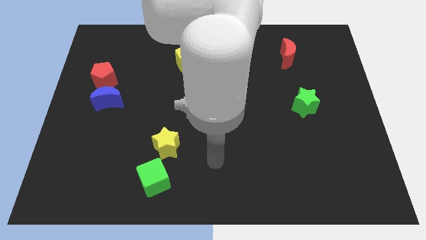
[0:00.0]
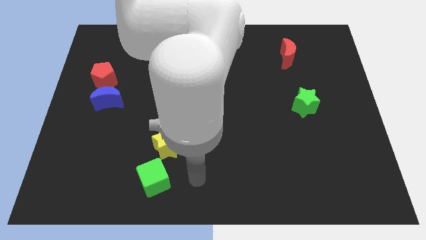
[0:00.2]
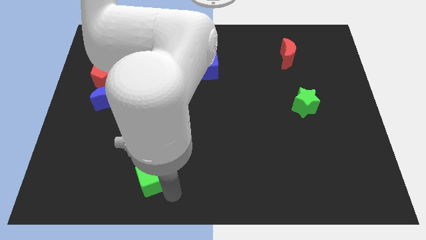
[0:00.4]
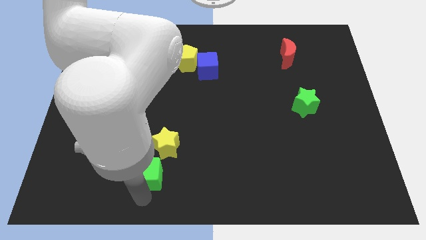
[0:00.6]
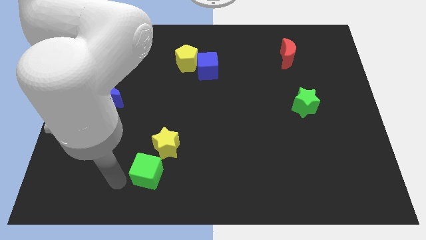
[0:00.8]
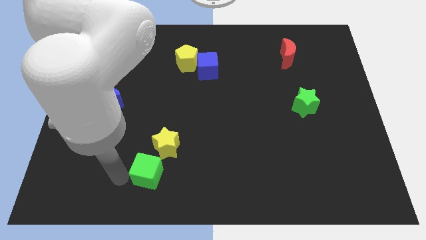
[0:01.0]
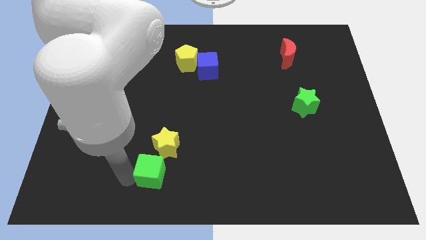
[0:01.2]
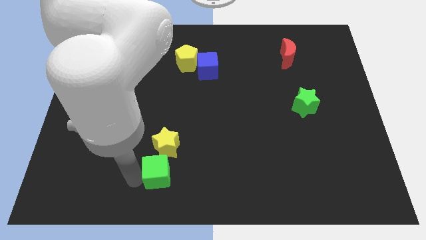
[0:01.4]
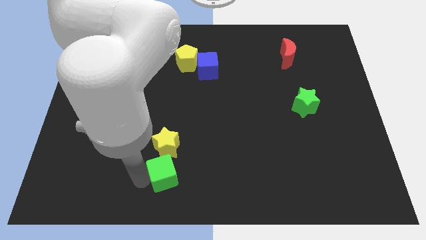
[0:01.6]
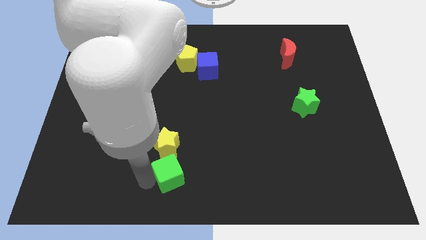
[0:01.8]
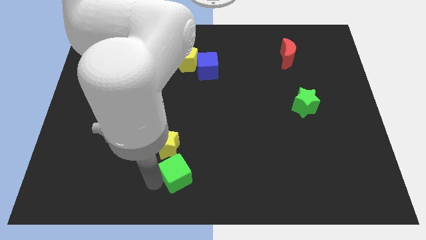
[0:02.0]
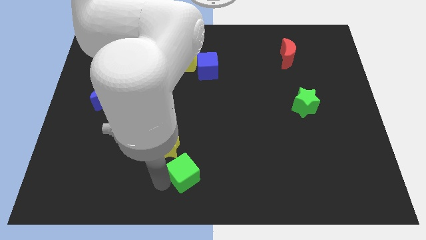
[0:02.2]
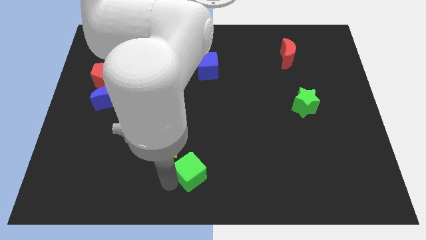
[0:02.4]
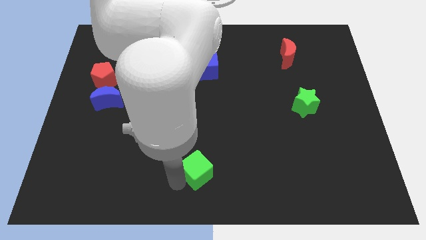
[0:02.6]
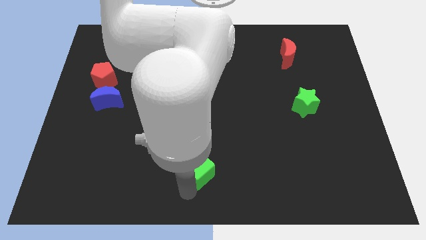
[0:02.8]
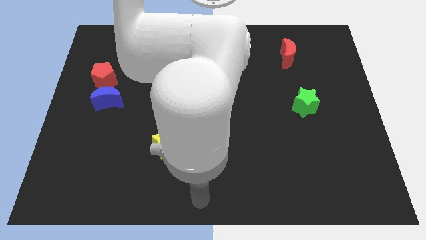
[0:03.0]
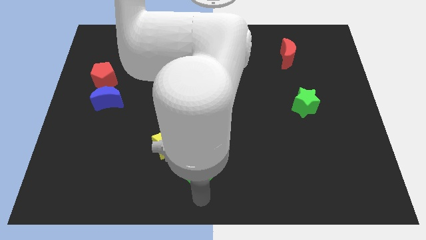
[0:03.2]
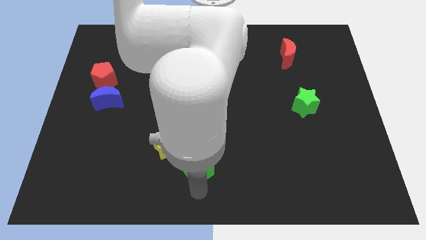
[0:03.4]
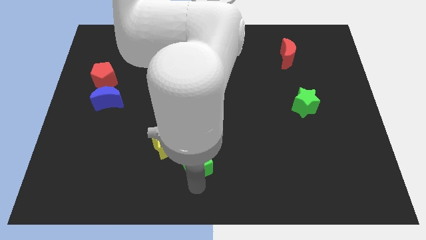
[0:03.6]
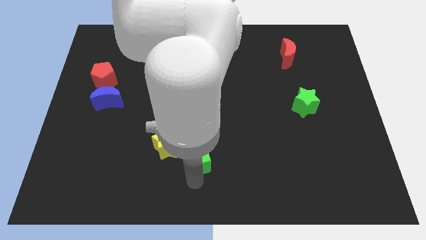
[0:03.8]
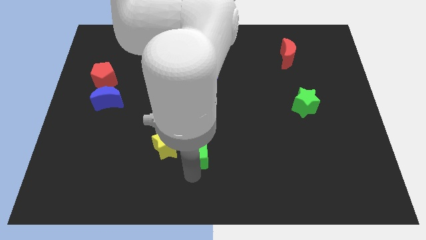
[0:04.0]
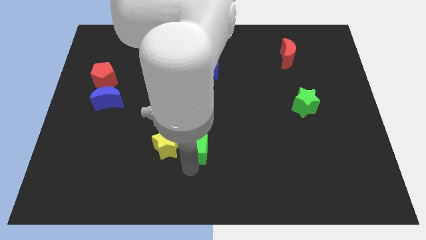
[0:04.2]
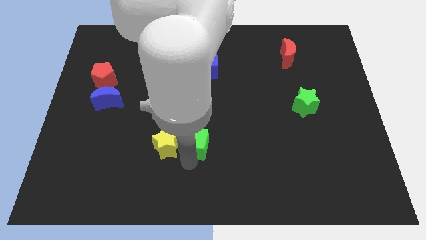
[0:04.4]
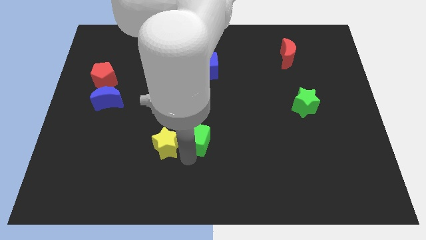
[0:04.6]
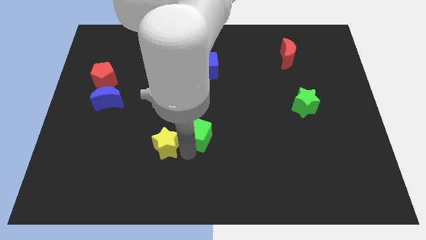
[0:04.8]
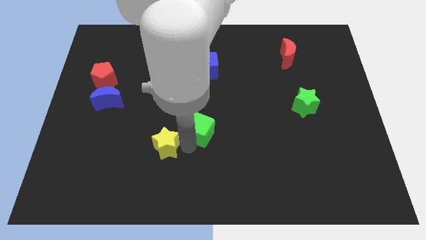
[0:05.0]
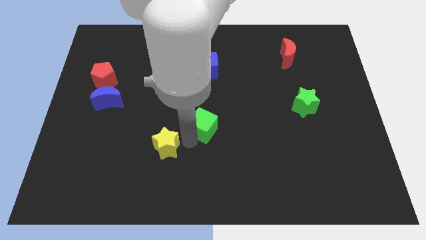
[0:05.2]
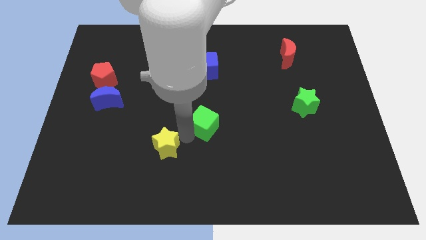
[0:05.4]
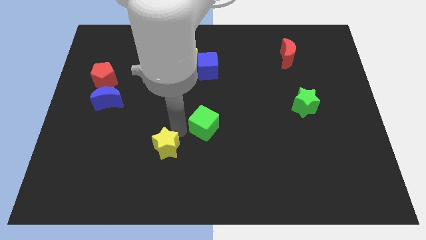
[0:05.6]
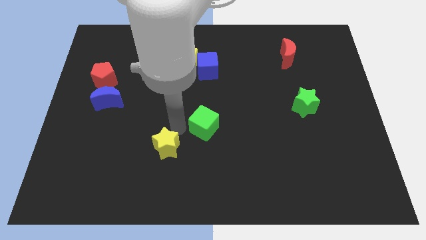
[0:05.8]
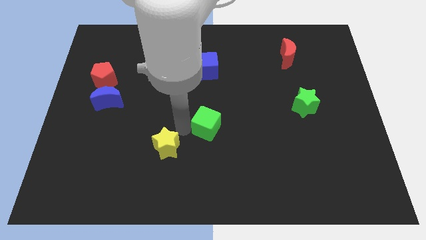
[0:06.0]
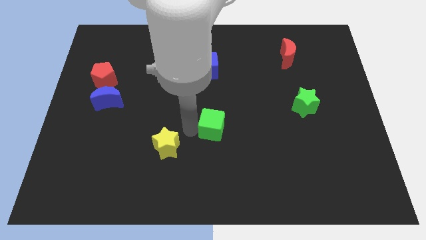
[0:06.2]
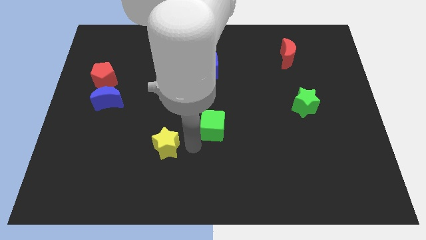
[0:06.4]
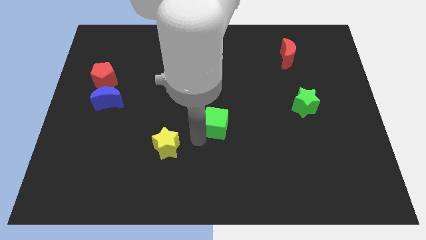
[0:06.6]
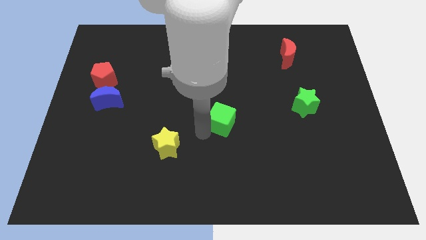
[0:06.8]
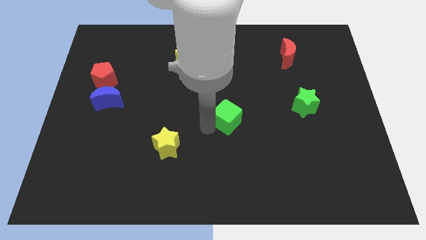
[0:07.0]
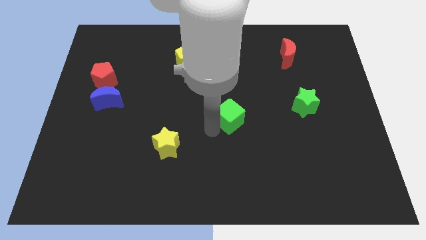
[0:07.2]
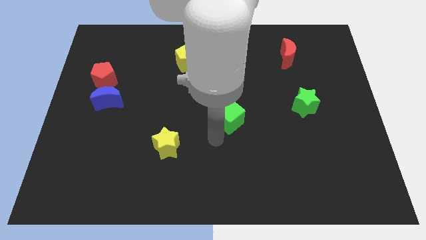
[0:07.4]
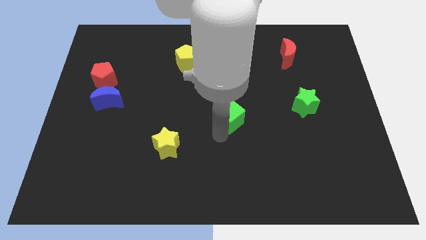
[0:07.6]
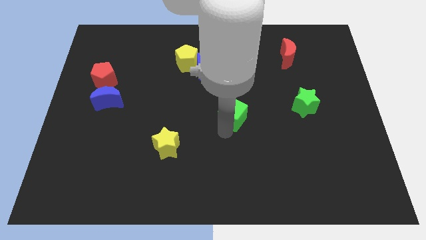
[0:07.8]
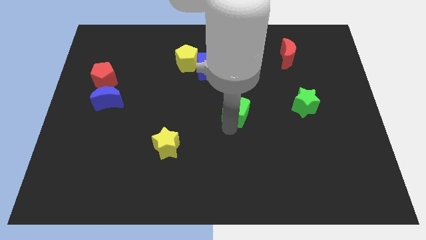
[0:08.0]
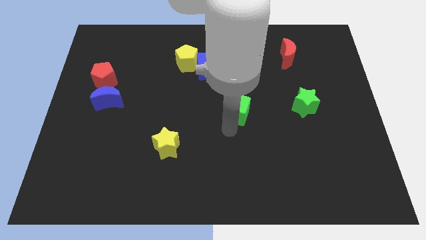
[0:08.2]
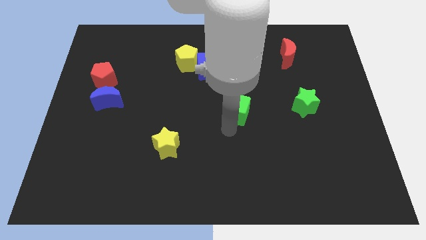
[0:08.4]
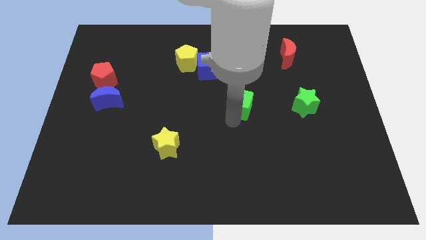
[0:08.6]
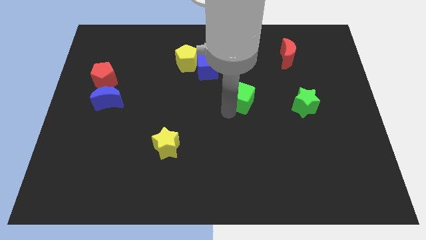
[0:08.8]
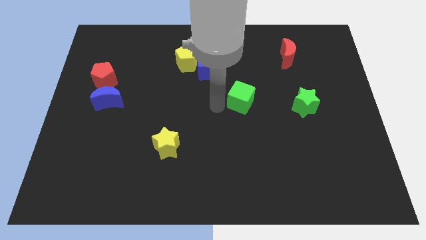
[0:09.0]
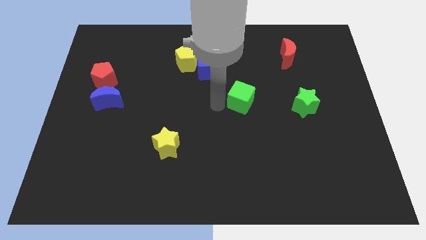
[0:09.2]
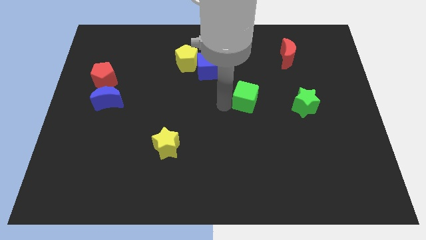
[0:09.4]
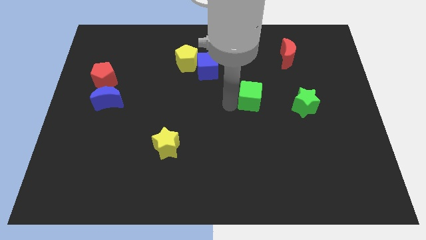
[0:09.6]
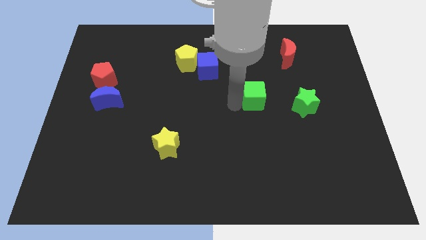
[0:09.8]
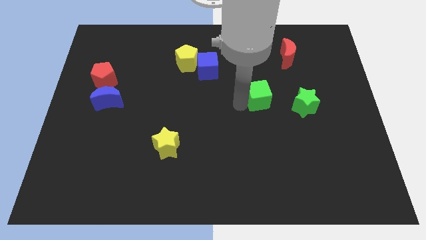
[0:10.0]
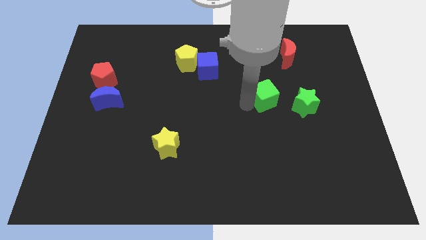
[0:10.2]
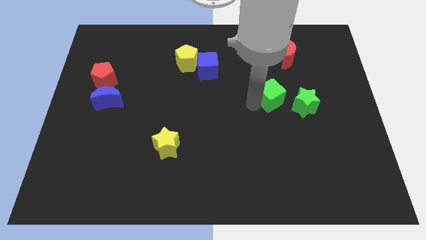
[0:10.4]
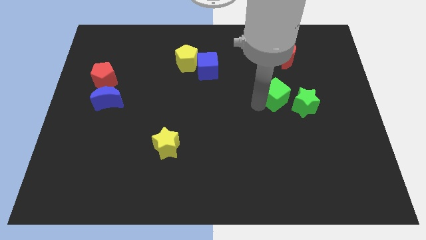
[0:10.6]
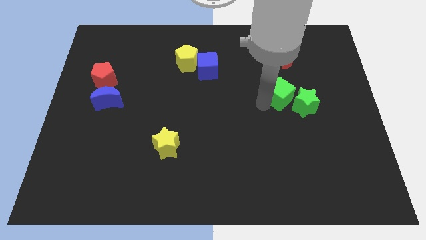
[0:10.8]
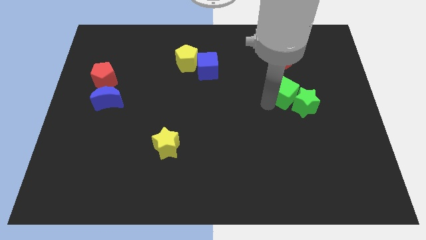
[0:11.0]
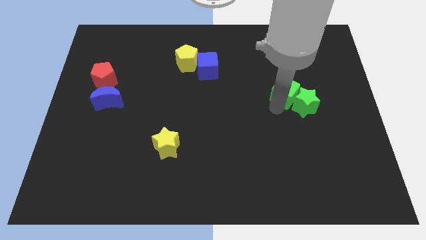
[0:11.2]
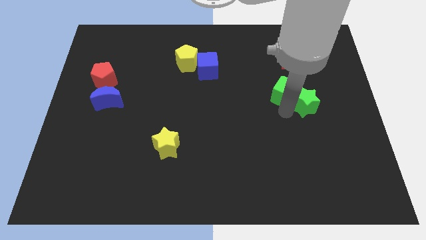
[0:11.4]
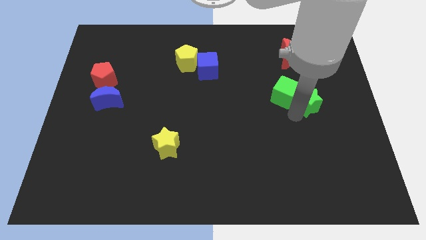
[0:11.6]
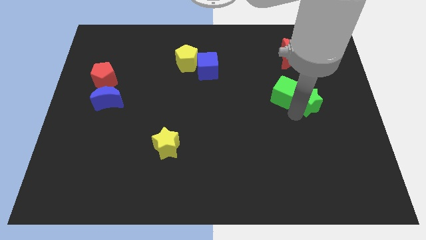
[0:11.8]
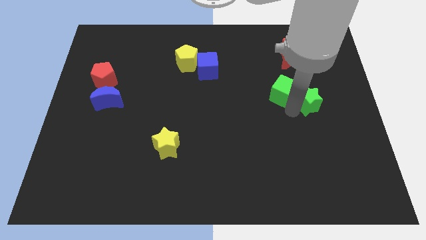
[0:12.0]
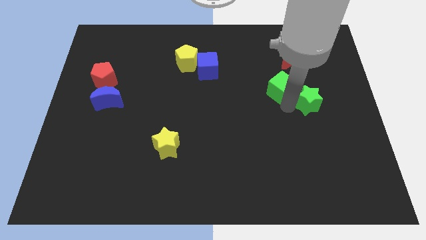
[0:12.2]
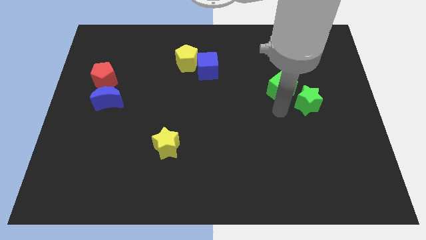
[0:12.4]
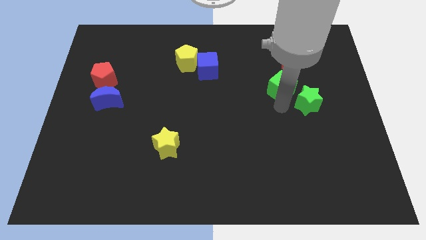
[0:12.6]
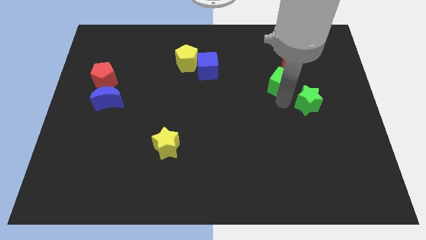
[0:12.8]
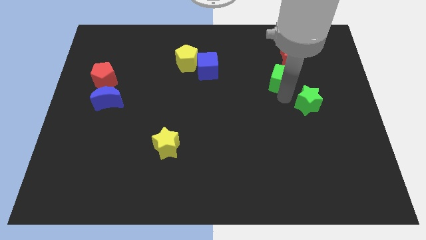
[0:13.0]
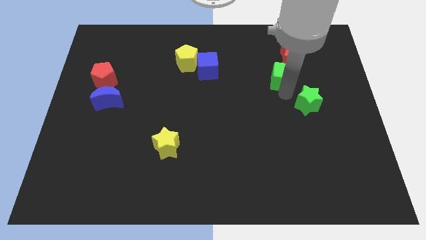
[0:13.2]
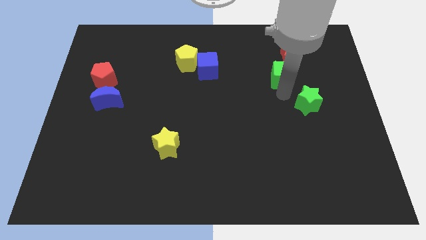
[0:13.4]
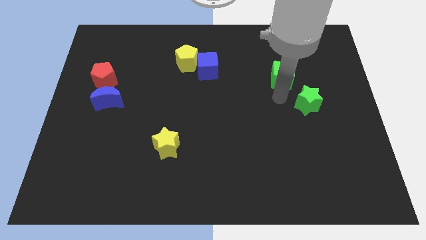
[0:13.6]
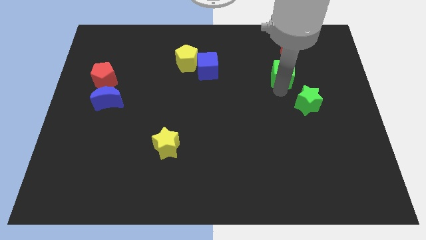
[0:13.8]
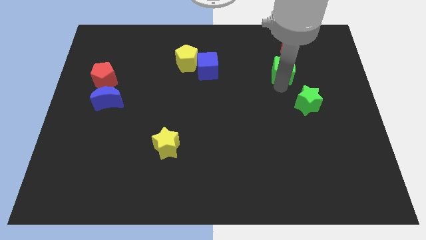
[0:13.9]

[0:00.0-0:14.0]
push the green cube to the red moon
